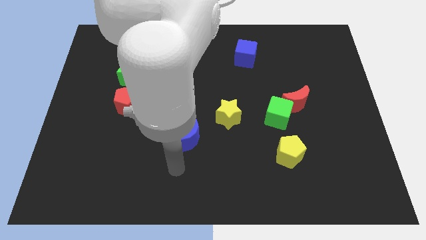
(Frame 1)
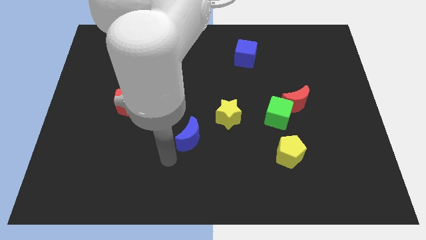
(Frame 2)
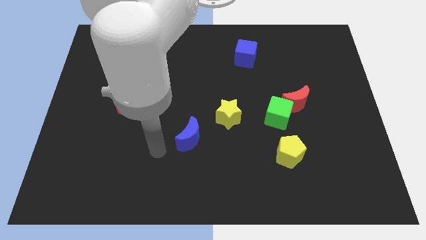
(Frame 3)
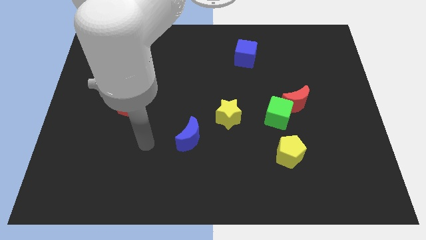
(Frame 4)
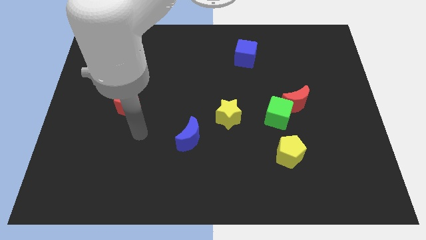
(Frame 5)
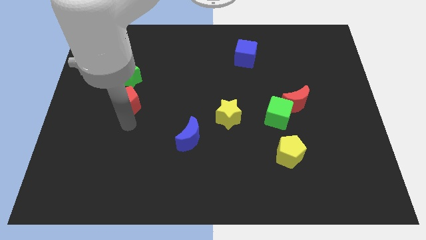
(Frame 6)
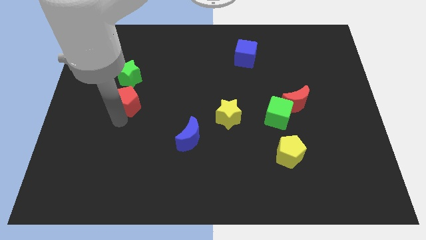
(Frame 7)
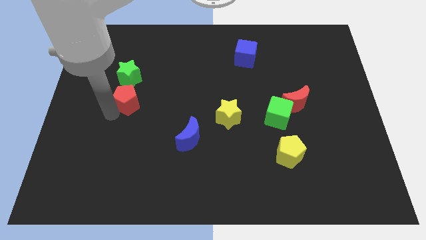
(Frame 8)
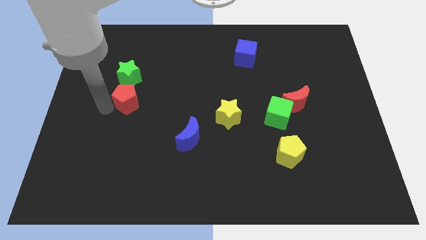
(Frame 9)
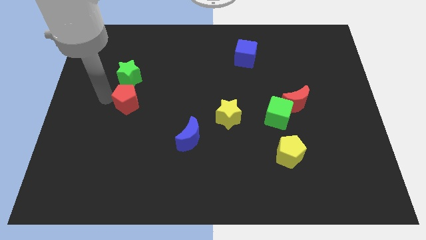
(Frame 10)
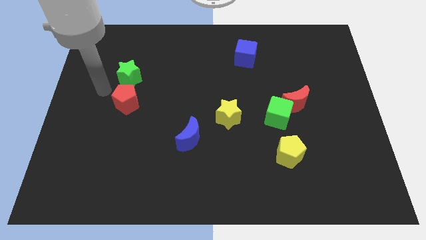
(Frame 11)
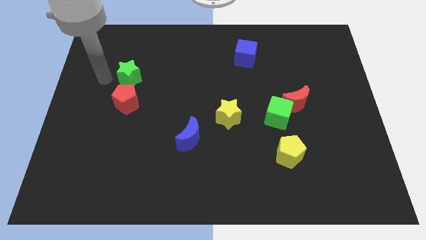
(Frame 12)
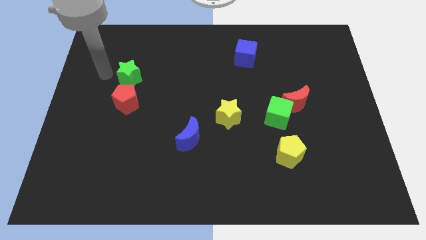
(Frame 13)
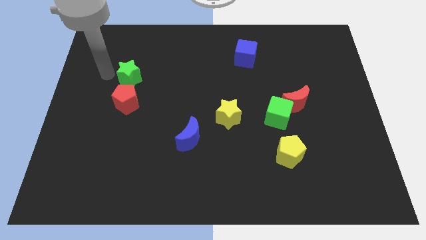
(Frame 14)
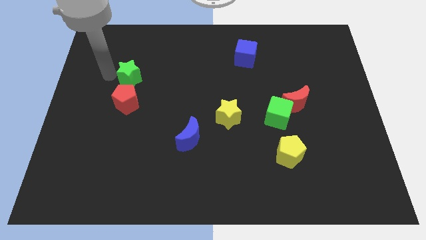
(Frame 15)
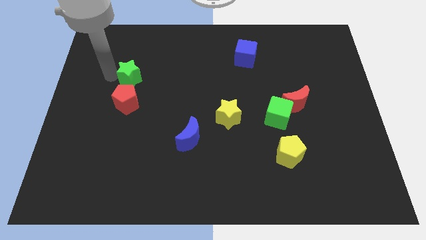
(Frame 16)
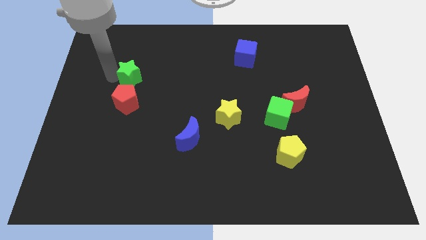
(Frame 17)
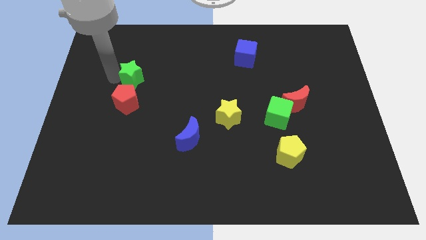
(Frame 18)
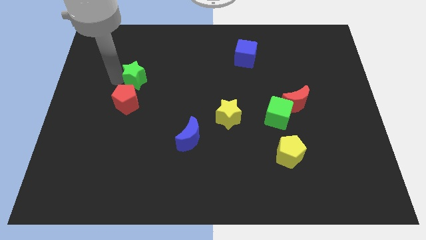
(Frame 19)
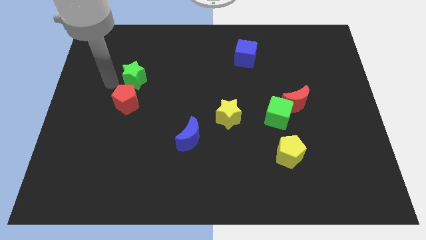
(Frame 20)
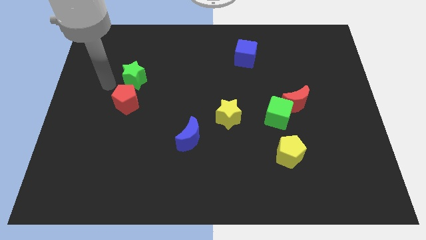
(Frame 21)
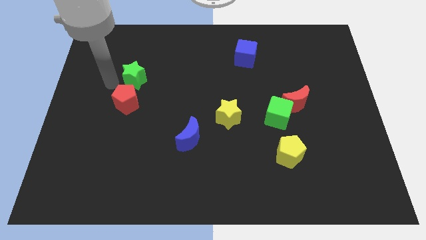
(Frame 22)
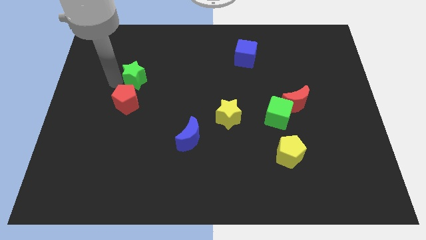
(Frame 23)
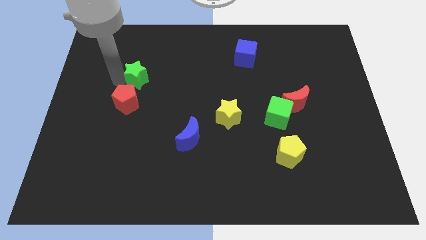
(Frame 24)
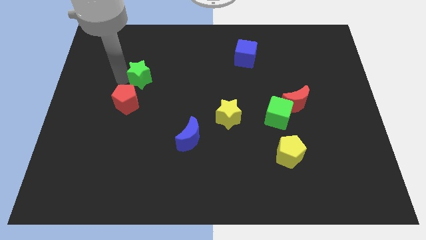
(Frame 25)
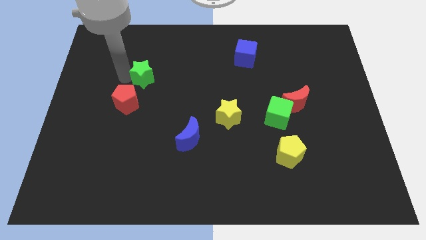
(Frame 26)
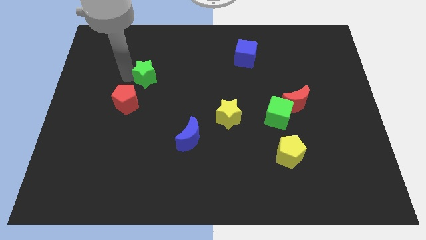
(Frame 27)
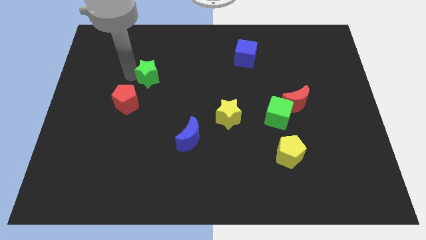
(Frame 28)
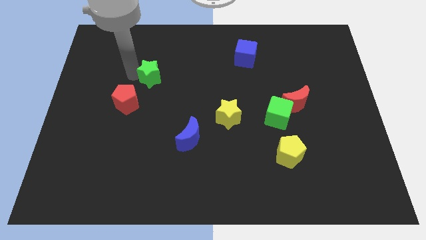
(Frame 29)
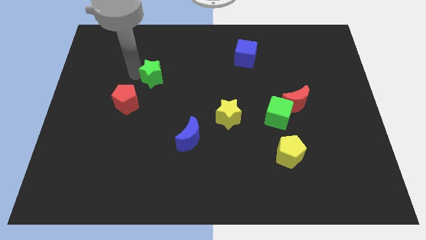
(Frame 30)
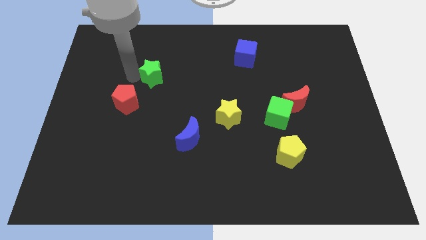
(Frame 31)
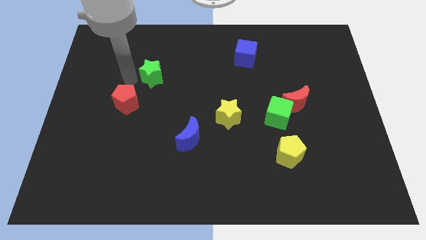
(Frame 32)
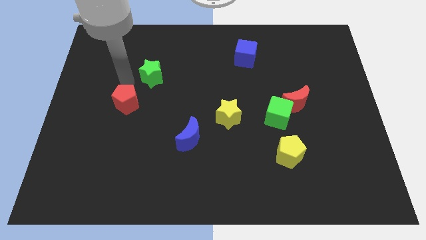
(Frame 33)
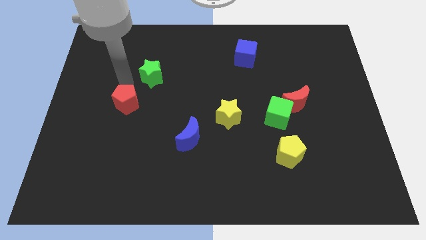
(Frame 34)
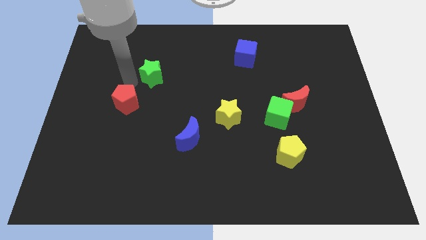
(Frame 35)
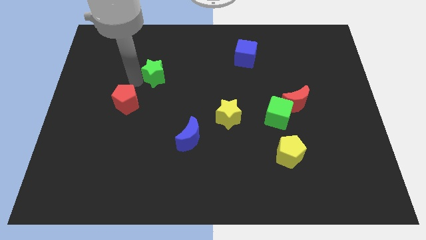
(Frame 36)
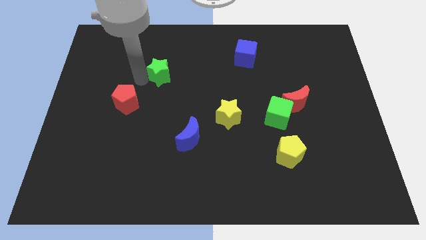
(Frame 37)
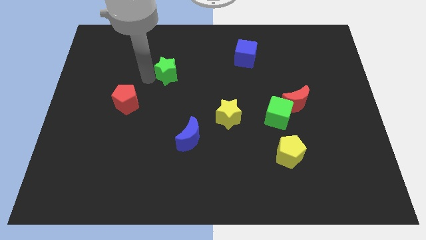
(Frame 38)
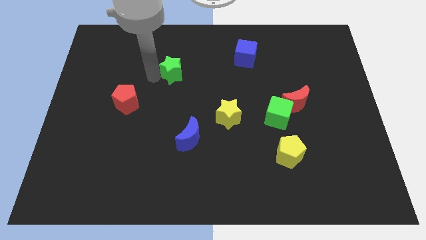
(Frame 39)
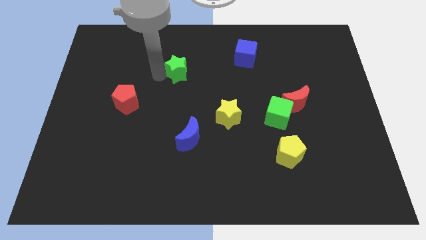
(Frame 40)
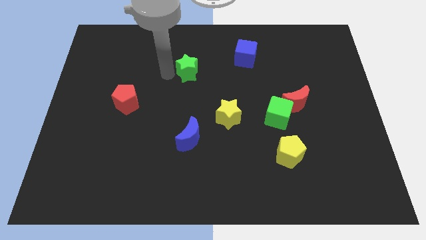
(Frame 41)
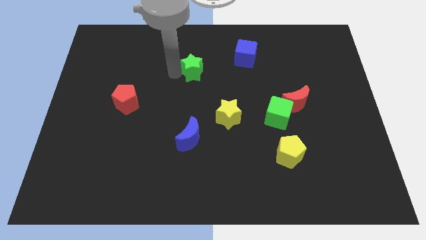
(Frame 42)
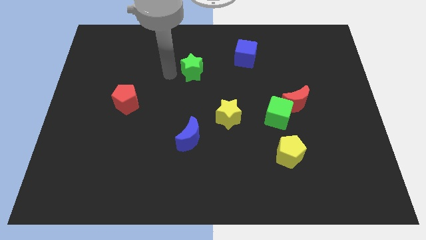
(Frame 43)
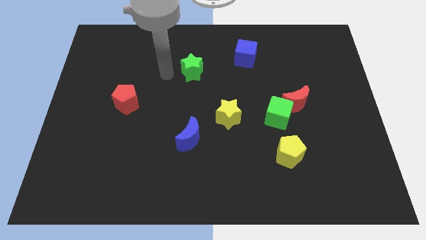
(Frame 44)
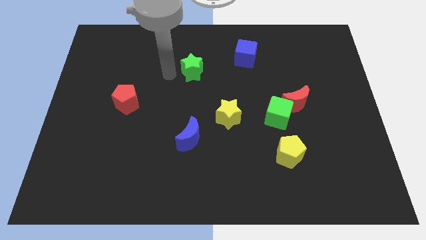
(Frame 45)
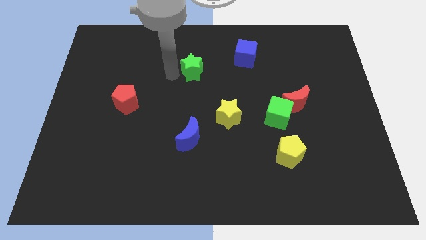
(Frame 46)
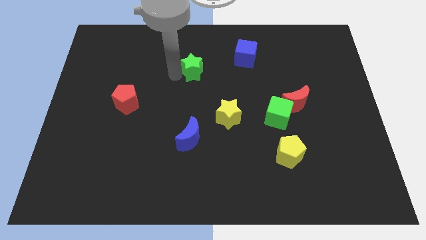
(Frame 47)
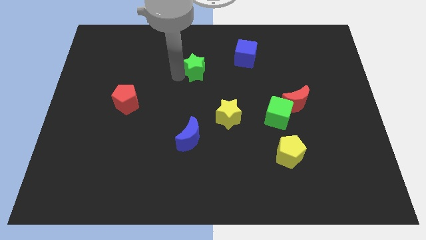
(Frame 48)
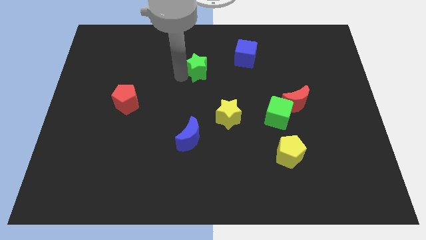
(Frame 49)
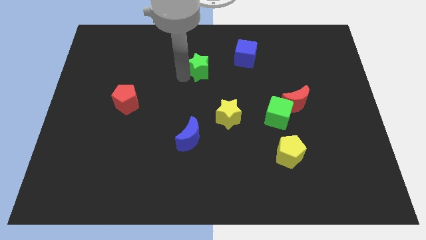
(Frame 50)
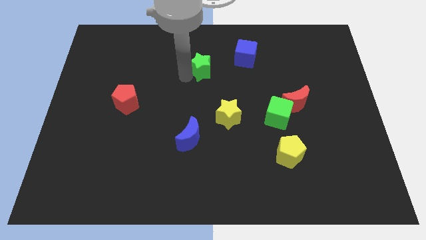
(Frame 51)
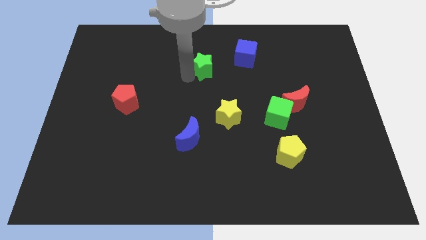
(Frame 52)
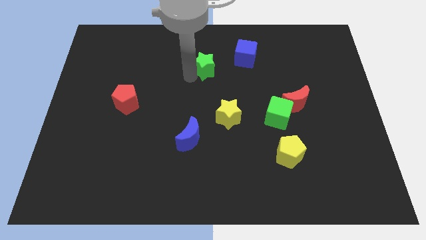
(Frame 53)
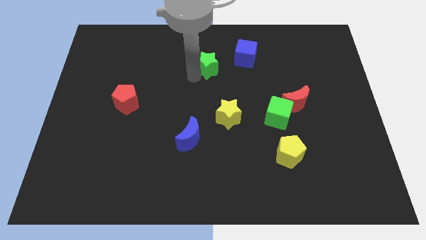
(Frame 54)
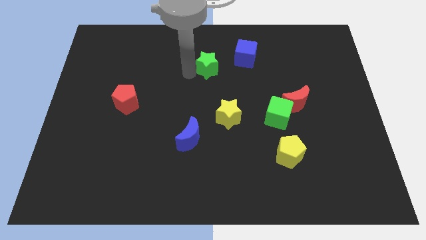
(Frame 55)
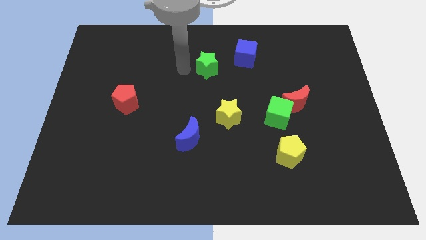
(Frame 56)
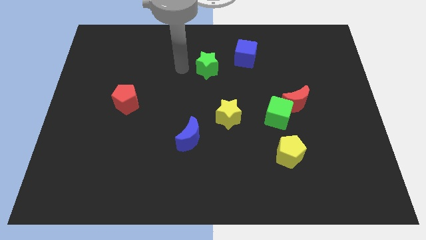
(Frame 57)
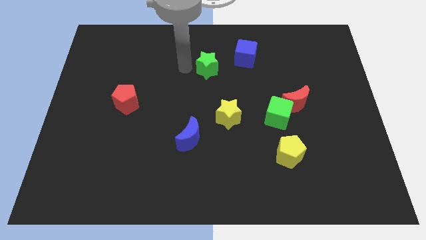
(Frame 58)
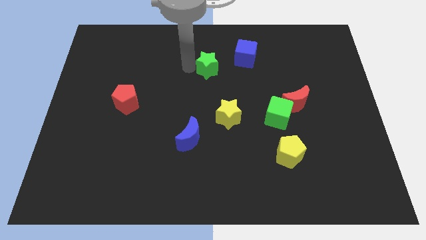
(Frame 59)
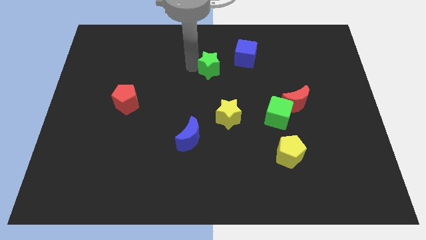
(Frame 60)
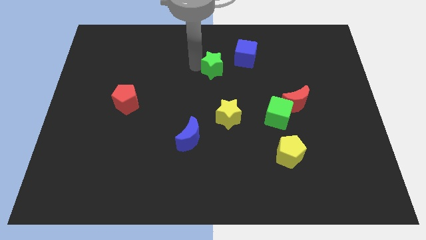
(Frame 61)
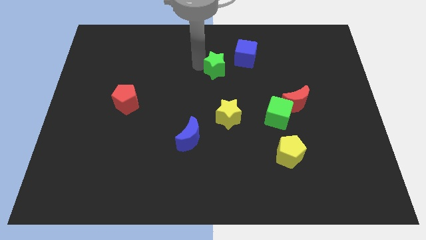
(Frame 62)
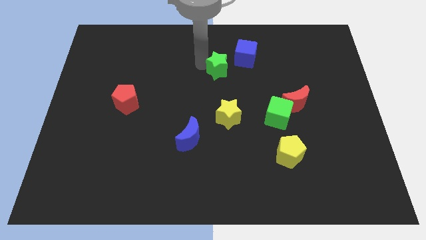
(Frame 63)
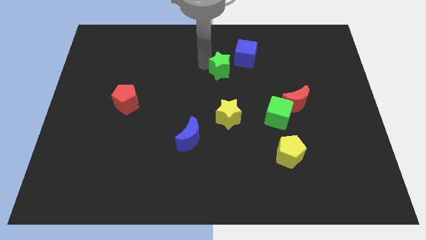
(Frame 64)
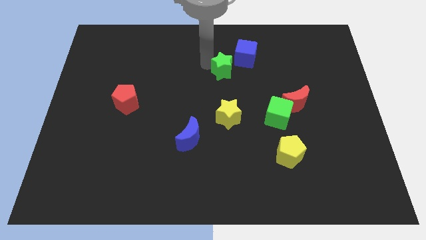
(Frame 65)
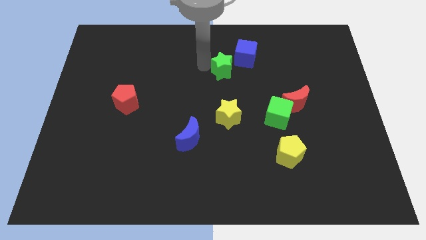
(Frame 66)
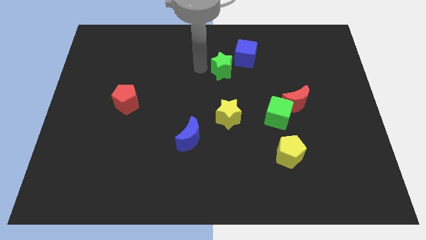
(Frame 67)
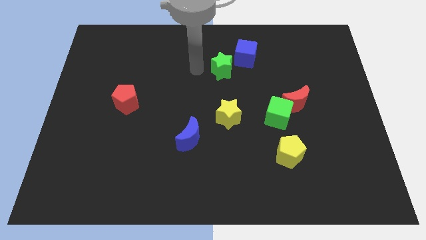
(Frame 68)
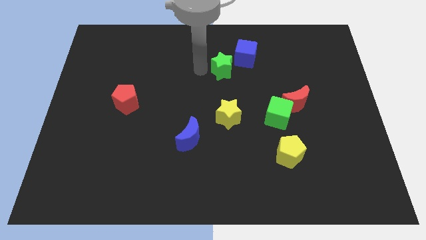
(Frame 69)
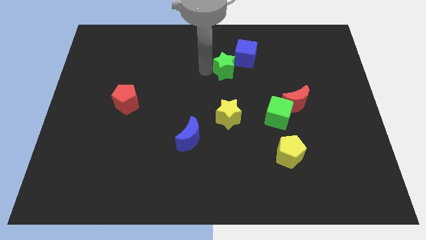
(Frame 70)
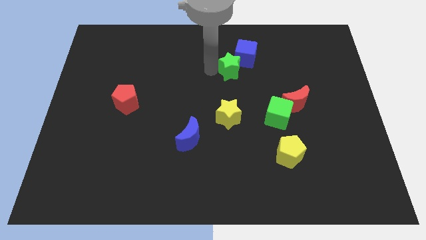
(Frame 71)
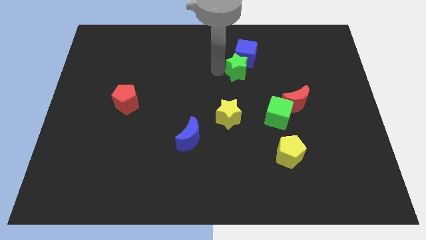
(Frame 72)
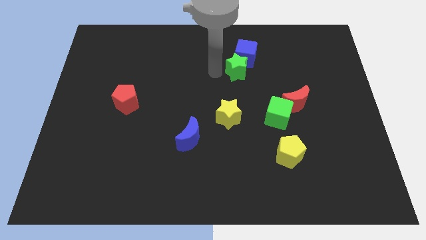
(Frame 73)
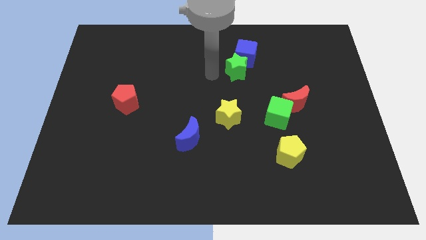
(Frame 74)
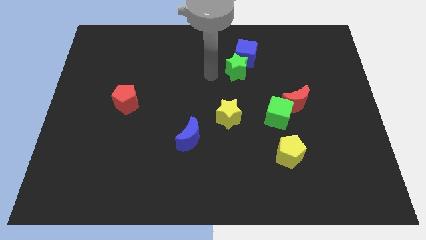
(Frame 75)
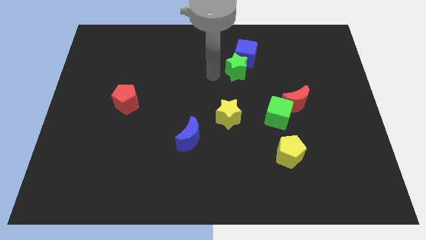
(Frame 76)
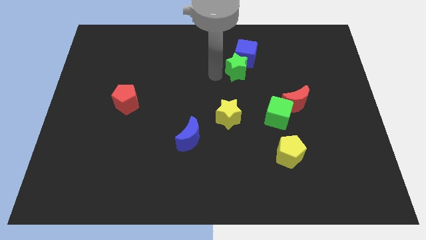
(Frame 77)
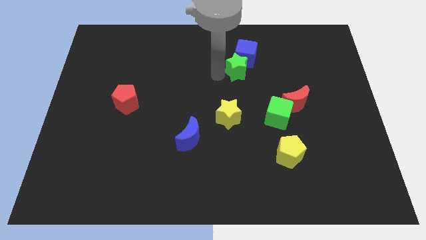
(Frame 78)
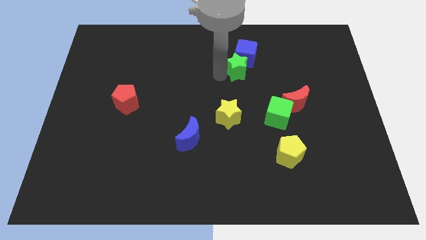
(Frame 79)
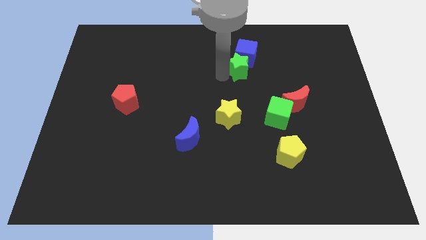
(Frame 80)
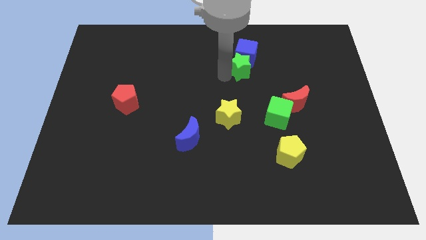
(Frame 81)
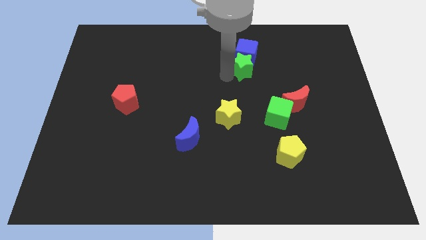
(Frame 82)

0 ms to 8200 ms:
slide the green star diagonally down and to the right of the blue cube
